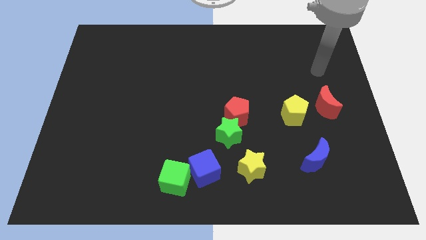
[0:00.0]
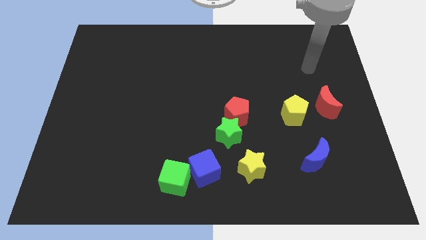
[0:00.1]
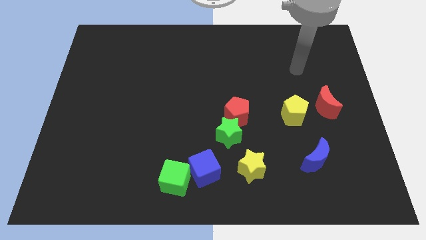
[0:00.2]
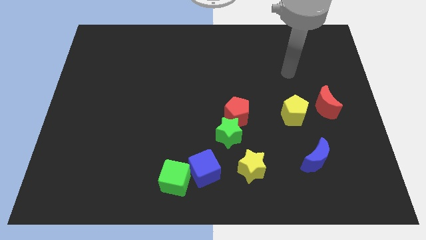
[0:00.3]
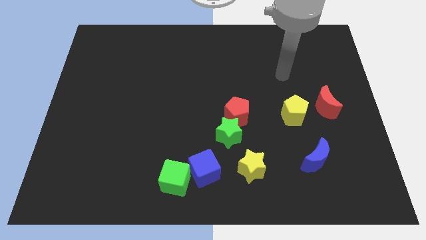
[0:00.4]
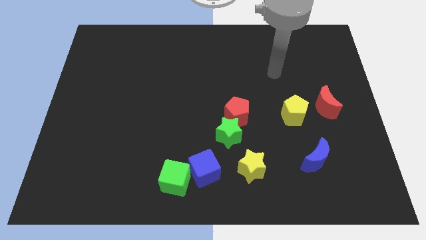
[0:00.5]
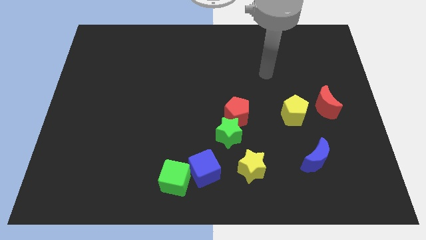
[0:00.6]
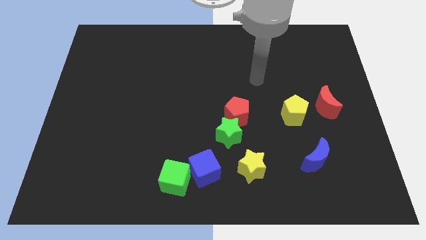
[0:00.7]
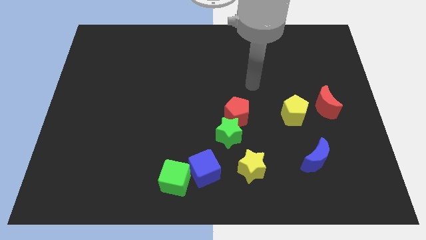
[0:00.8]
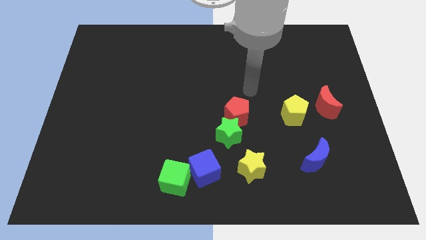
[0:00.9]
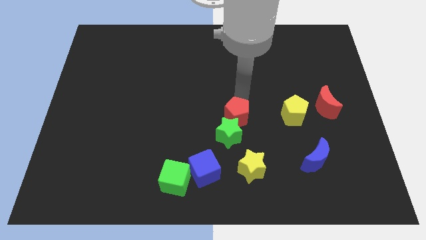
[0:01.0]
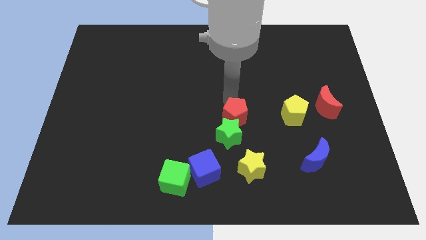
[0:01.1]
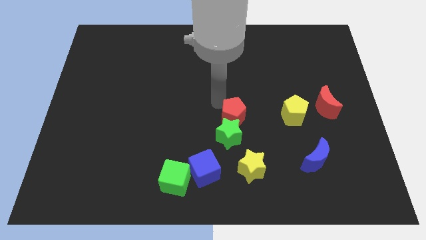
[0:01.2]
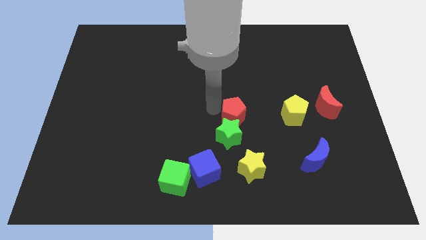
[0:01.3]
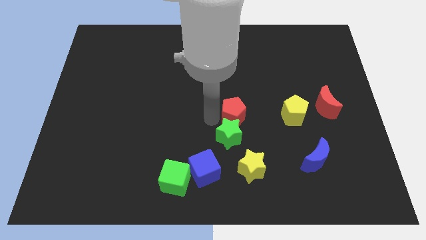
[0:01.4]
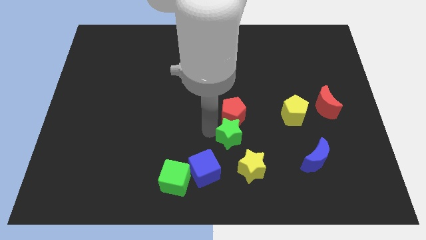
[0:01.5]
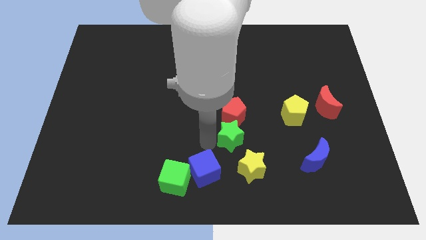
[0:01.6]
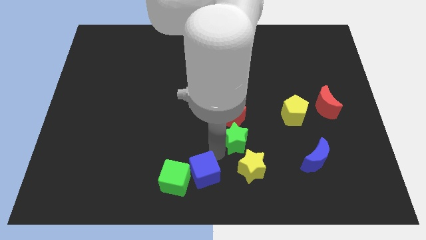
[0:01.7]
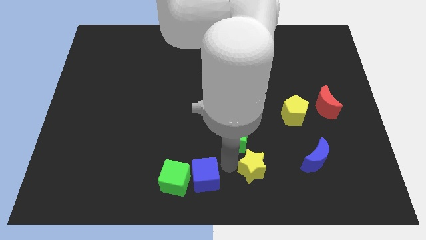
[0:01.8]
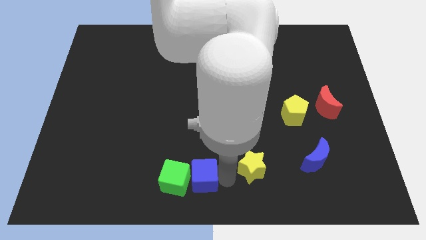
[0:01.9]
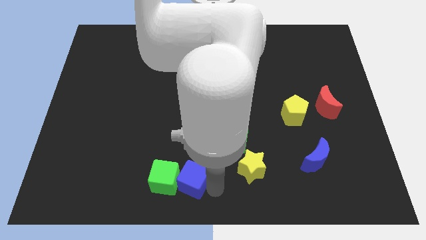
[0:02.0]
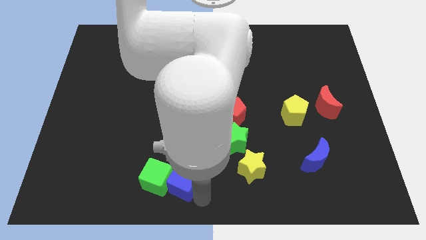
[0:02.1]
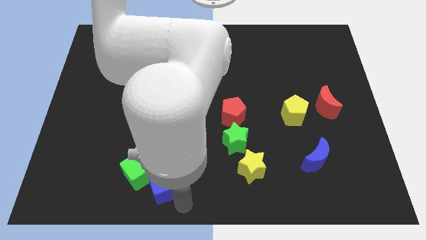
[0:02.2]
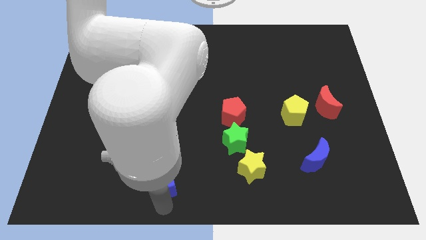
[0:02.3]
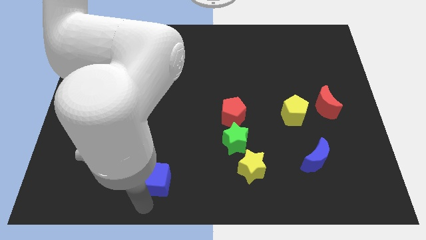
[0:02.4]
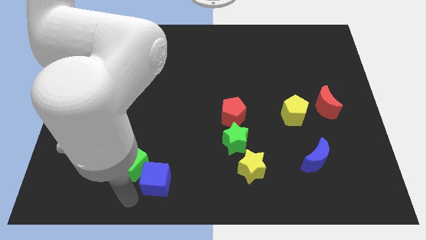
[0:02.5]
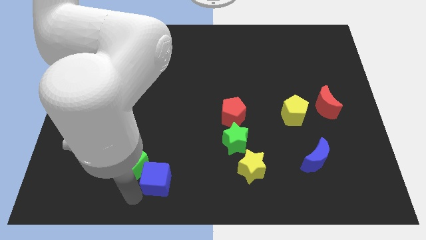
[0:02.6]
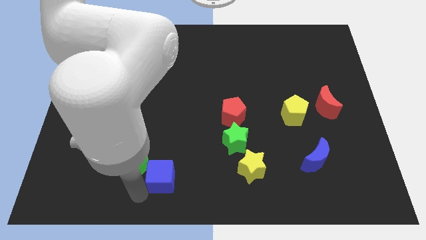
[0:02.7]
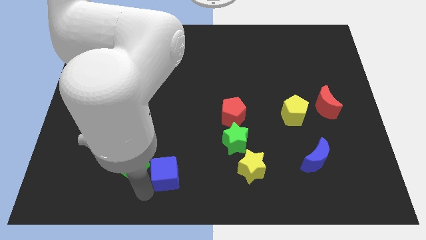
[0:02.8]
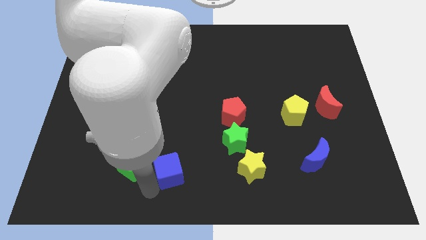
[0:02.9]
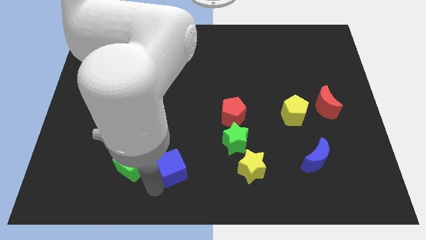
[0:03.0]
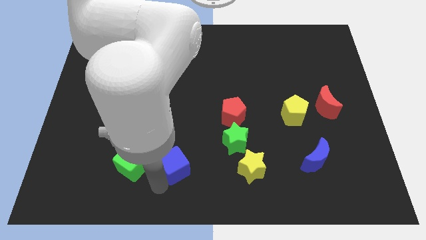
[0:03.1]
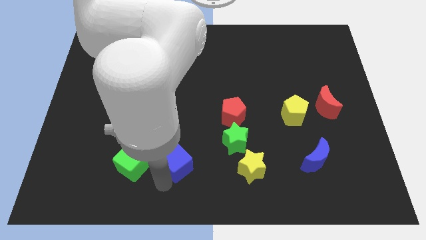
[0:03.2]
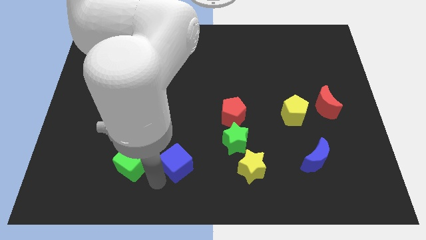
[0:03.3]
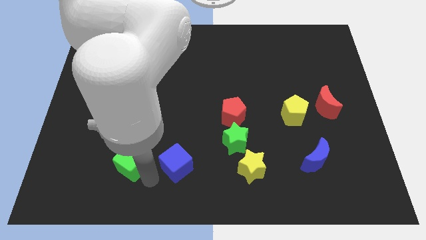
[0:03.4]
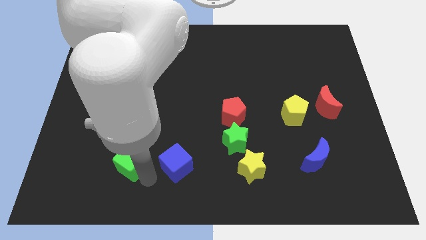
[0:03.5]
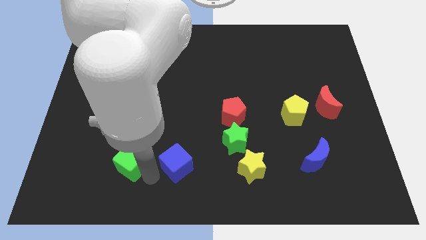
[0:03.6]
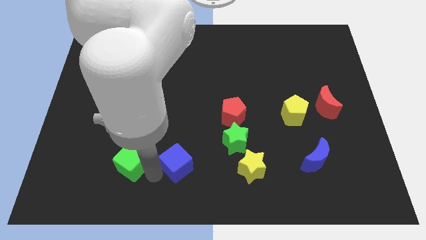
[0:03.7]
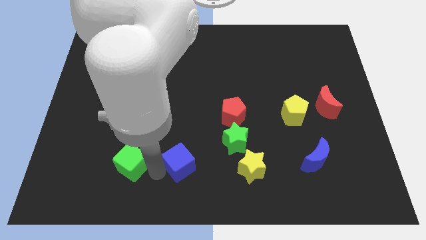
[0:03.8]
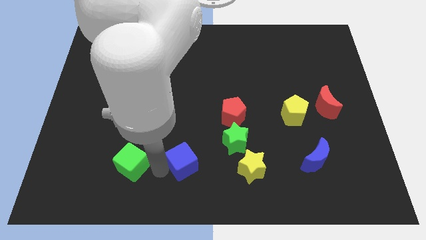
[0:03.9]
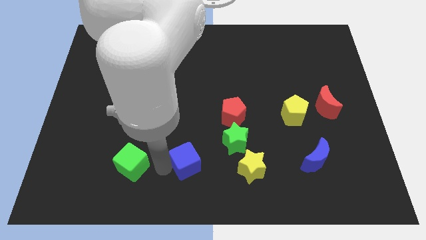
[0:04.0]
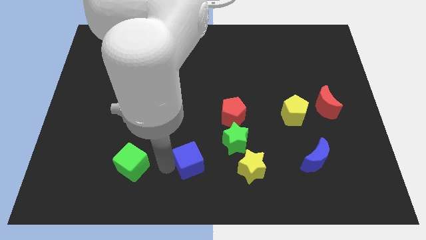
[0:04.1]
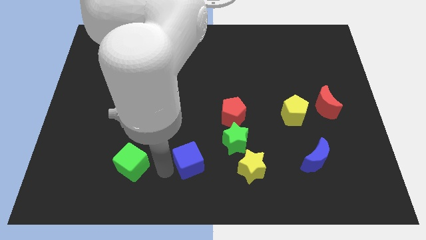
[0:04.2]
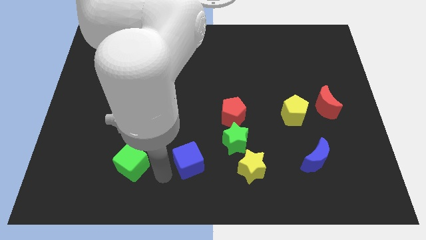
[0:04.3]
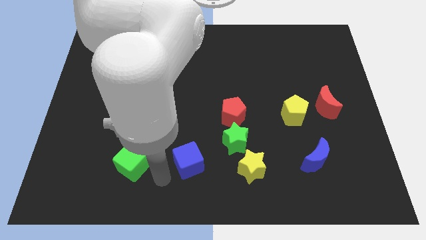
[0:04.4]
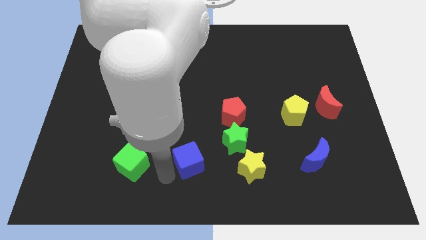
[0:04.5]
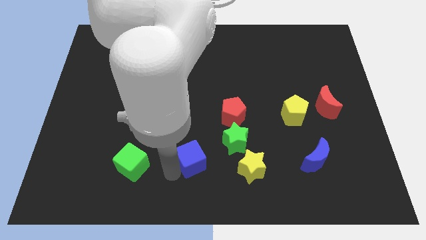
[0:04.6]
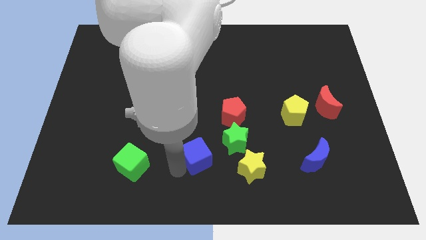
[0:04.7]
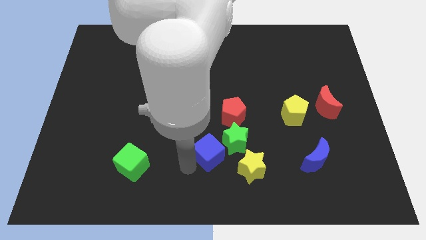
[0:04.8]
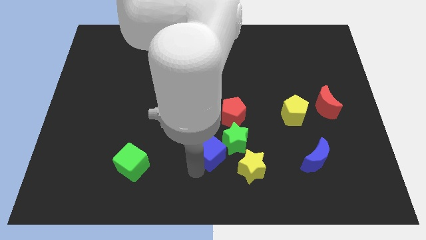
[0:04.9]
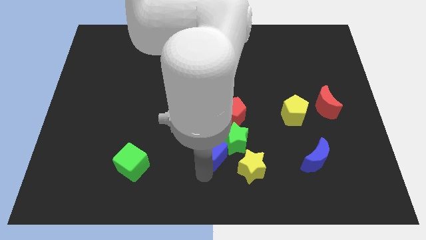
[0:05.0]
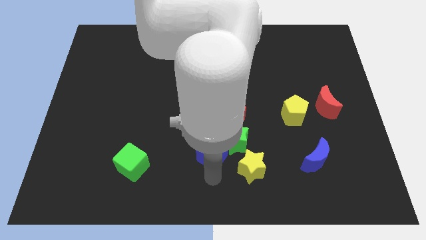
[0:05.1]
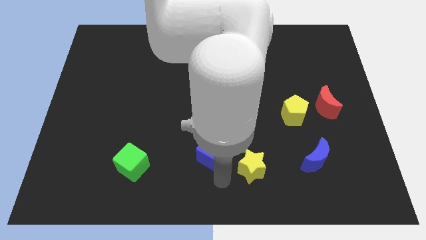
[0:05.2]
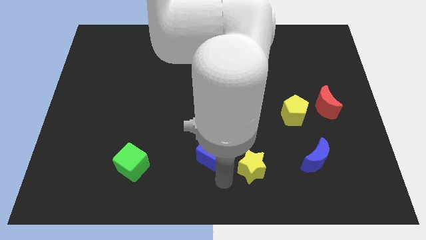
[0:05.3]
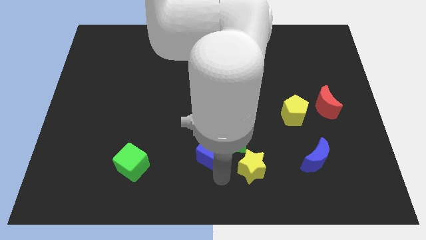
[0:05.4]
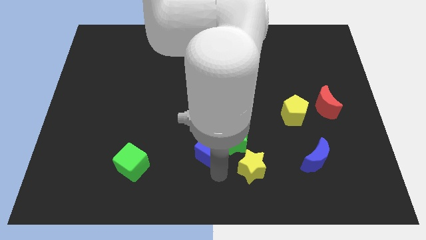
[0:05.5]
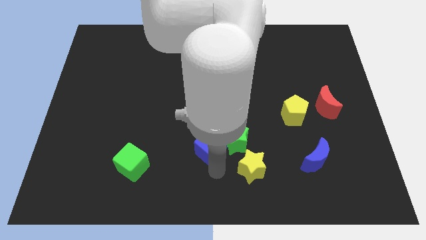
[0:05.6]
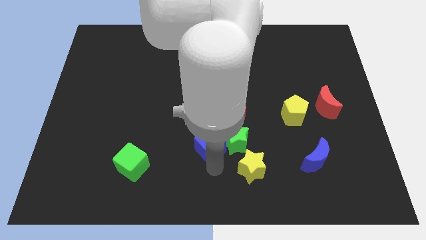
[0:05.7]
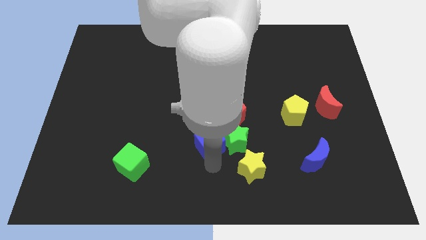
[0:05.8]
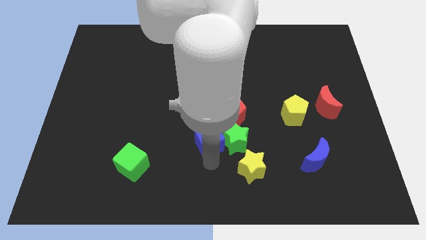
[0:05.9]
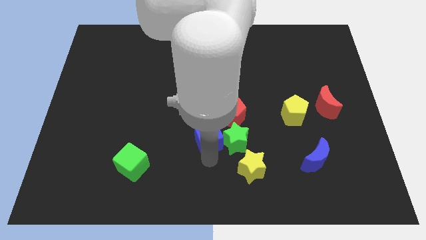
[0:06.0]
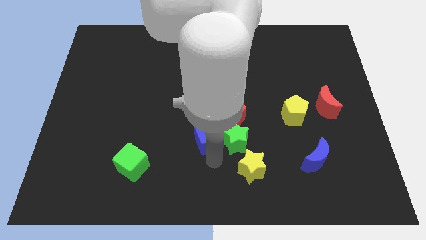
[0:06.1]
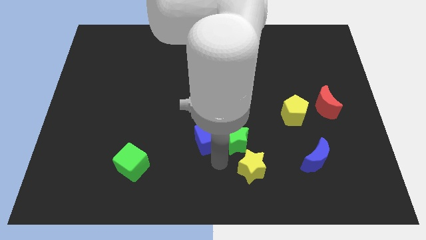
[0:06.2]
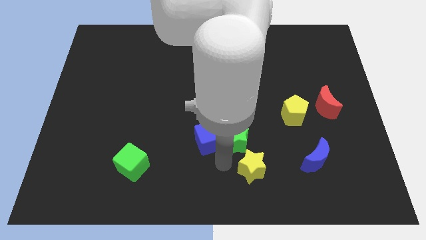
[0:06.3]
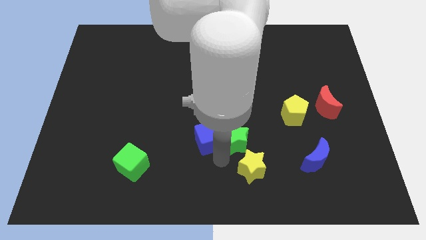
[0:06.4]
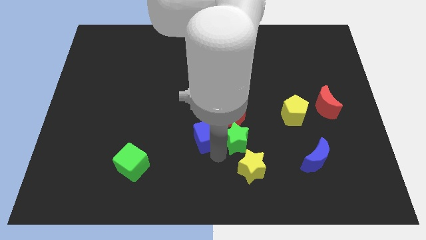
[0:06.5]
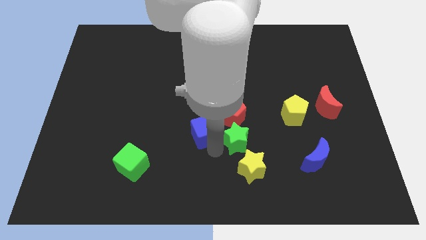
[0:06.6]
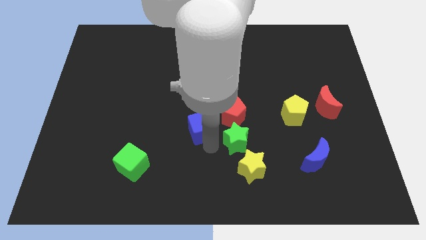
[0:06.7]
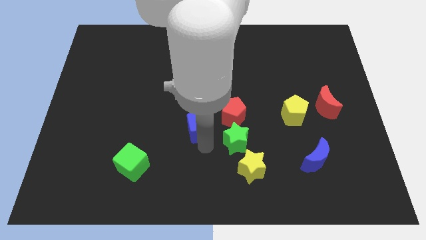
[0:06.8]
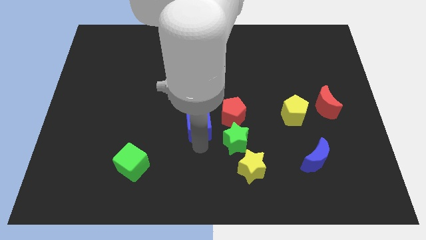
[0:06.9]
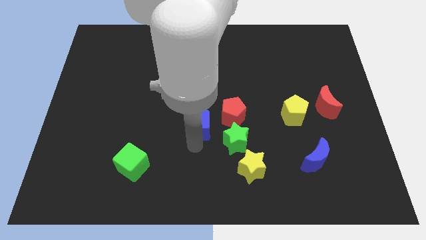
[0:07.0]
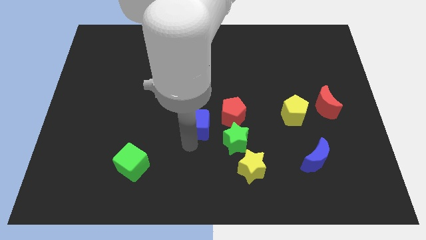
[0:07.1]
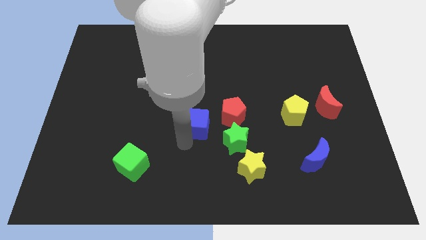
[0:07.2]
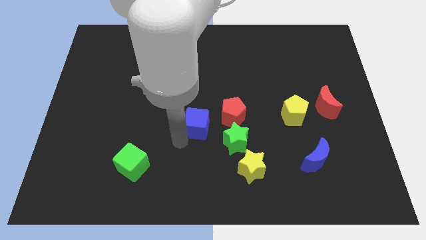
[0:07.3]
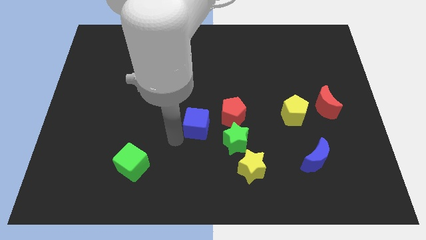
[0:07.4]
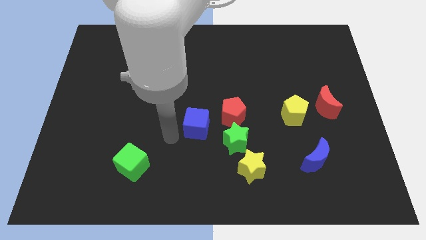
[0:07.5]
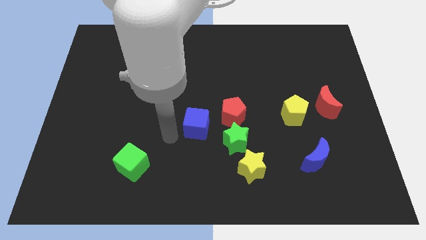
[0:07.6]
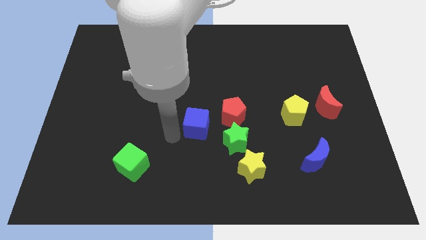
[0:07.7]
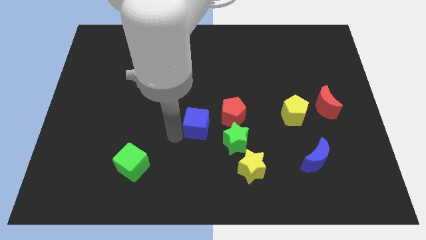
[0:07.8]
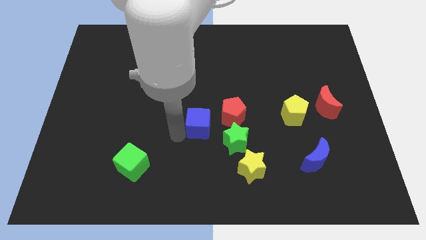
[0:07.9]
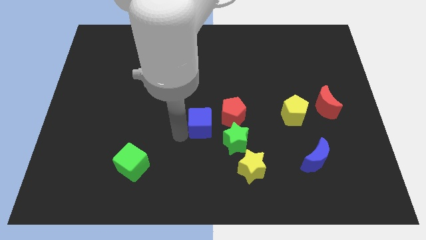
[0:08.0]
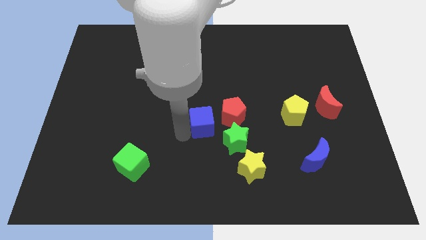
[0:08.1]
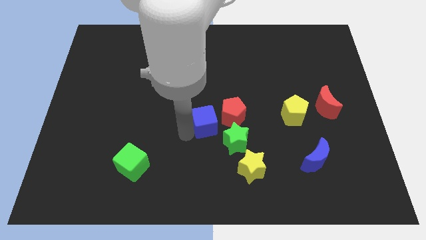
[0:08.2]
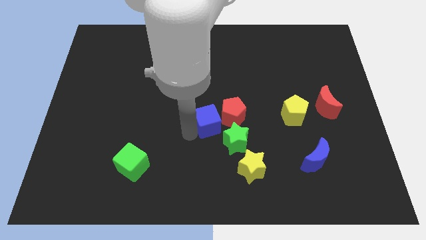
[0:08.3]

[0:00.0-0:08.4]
slide the blue cube towards the red pentagon
